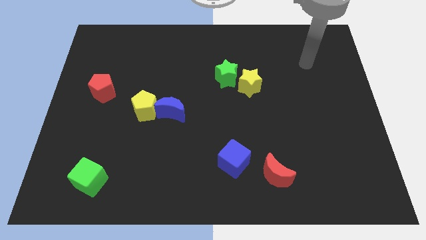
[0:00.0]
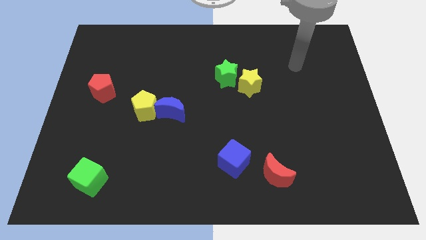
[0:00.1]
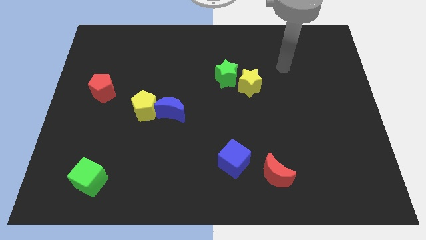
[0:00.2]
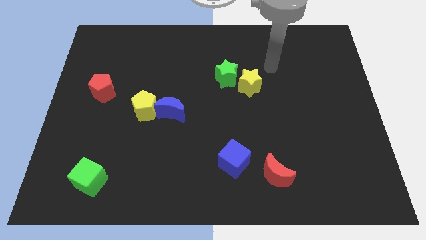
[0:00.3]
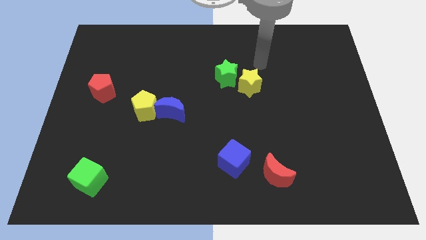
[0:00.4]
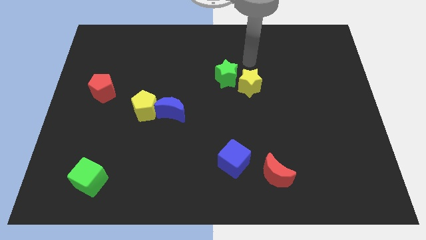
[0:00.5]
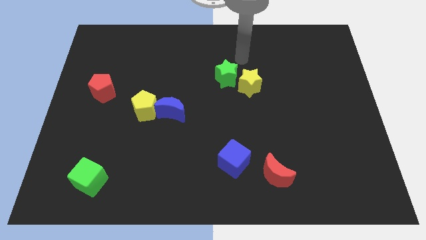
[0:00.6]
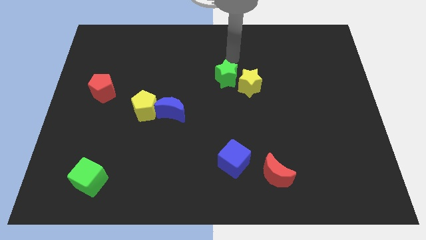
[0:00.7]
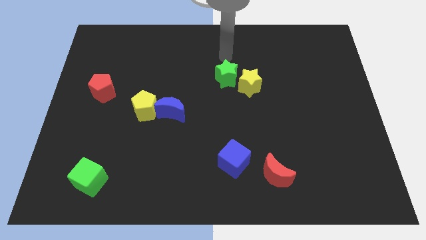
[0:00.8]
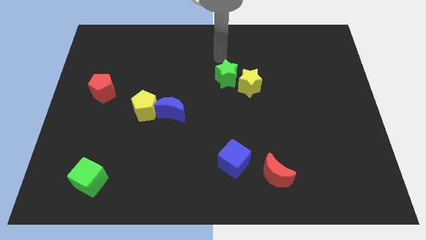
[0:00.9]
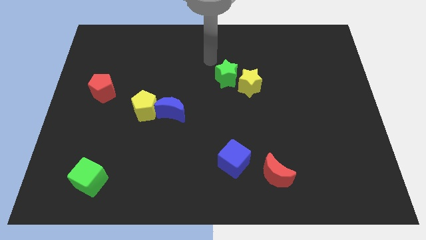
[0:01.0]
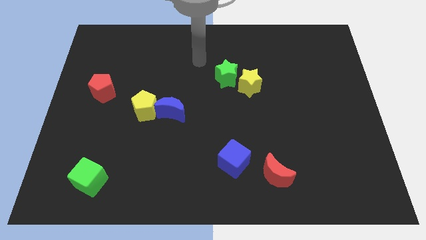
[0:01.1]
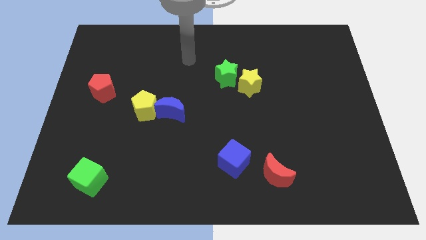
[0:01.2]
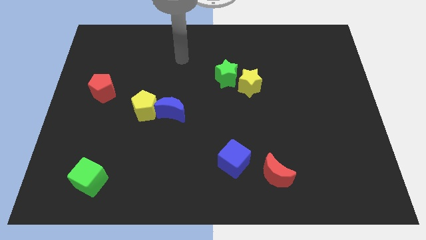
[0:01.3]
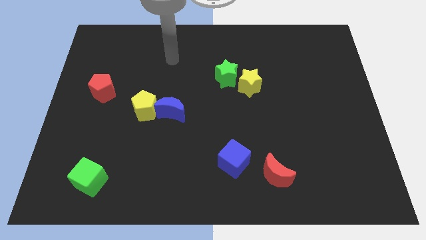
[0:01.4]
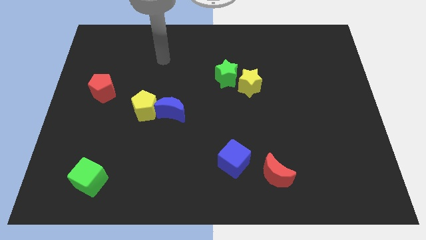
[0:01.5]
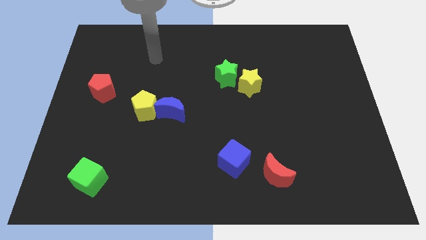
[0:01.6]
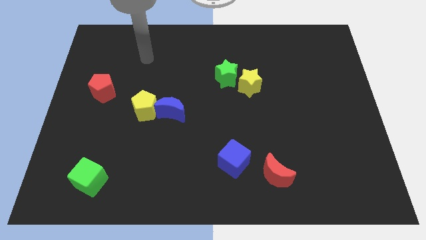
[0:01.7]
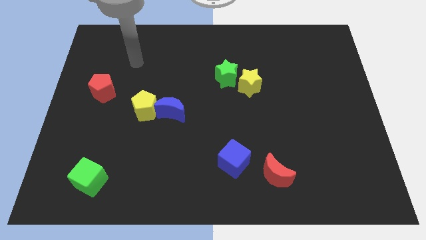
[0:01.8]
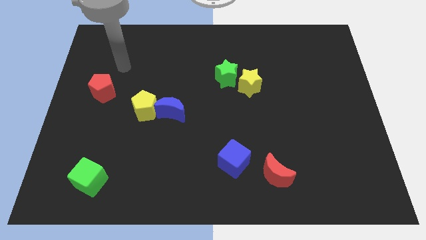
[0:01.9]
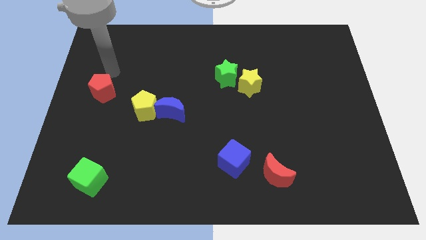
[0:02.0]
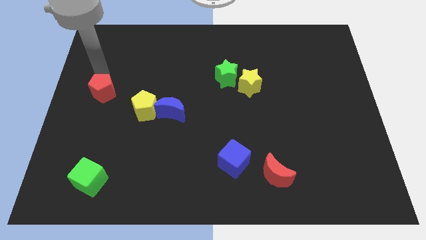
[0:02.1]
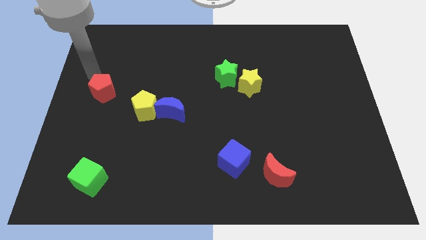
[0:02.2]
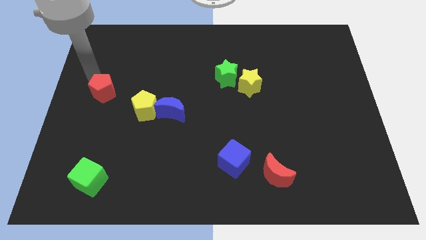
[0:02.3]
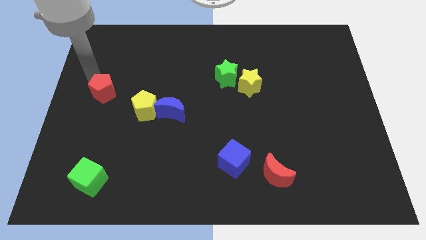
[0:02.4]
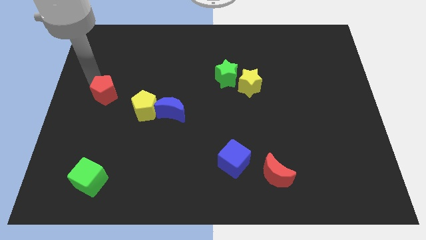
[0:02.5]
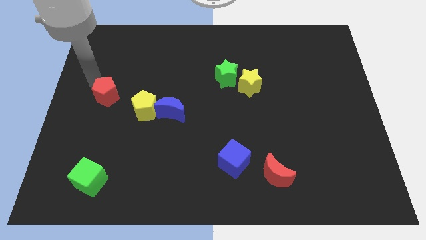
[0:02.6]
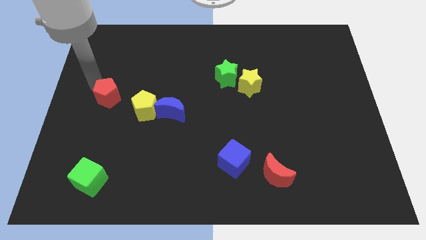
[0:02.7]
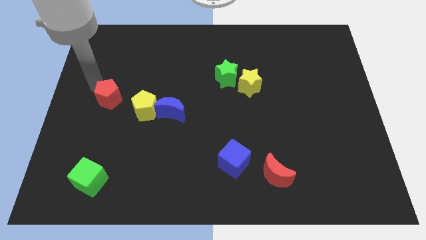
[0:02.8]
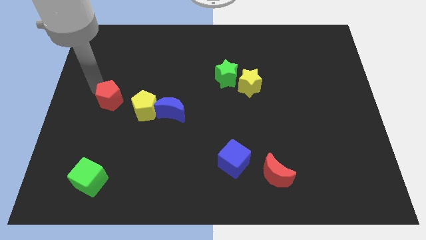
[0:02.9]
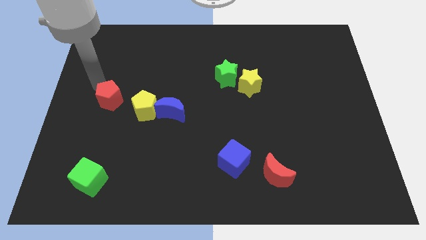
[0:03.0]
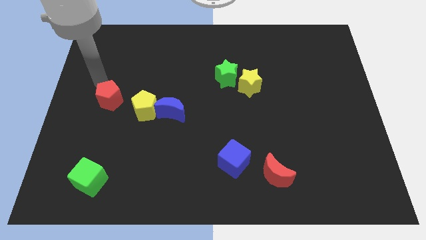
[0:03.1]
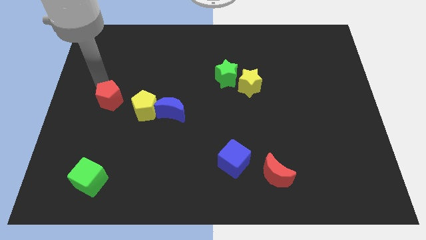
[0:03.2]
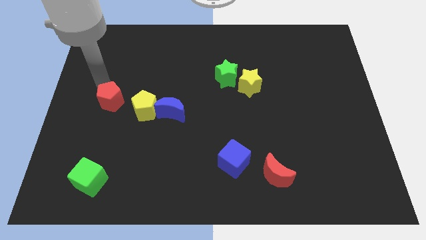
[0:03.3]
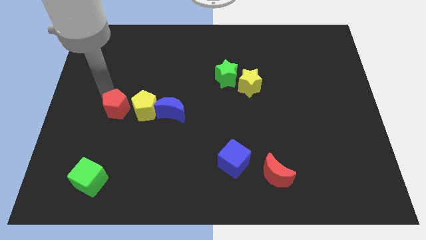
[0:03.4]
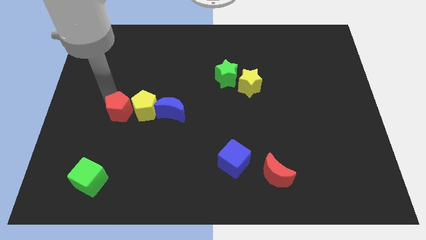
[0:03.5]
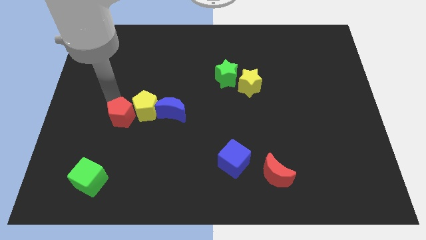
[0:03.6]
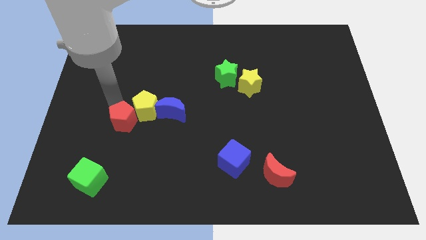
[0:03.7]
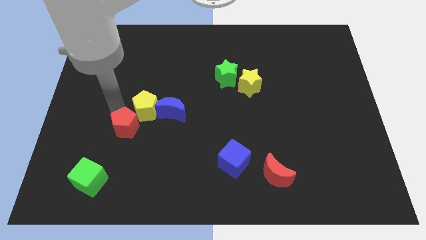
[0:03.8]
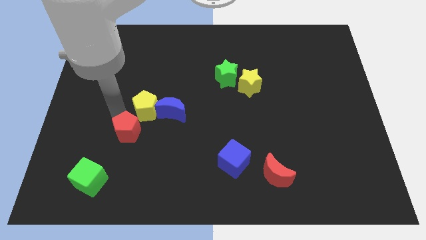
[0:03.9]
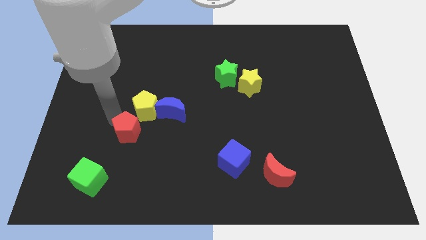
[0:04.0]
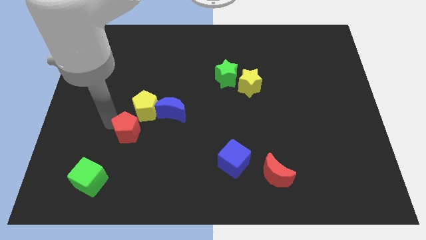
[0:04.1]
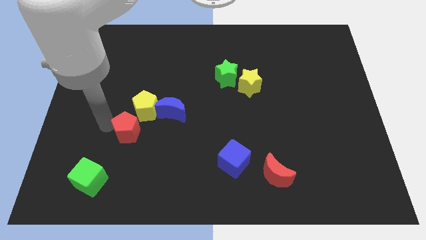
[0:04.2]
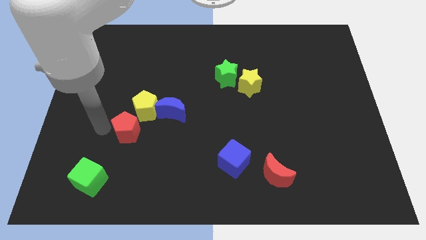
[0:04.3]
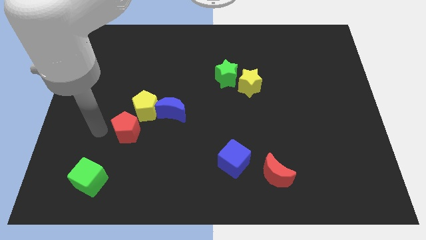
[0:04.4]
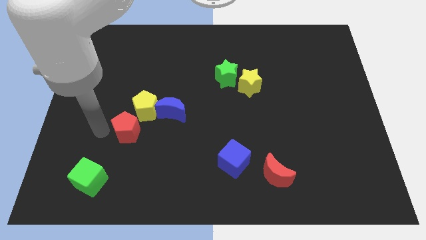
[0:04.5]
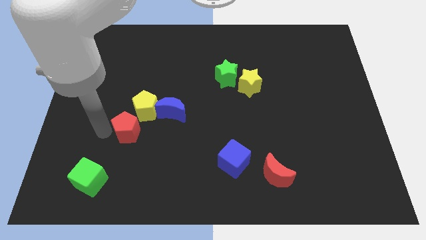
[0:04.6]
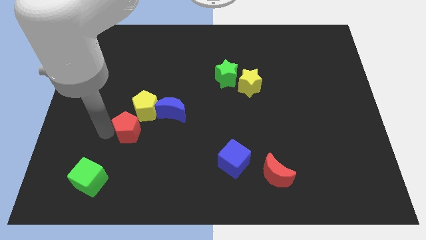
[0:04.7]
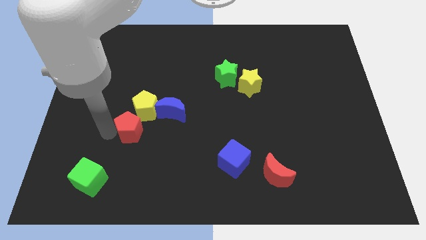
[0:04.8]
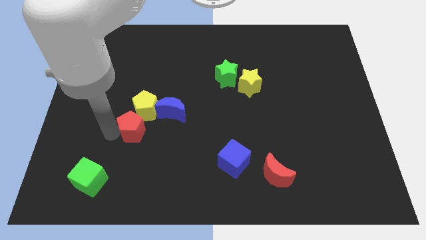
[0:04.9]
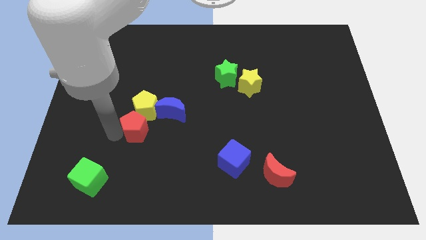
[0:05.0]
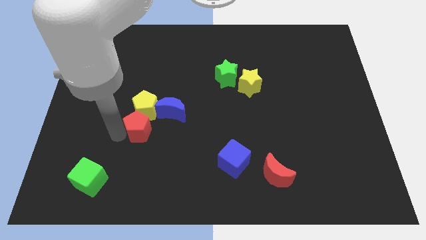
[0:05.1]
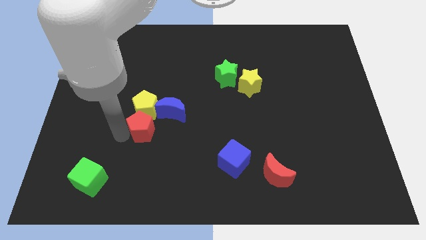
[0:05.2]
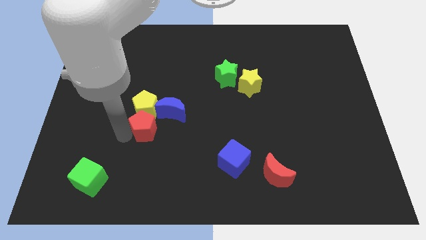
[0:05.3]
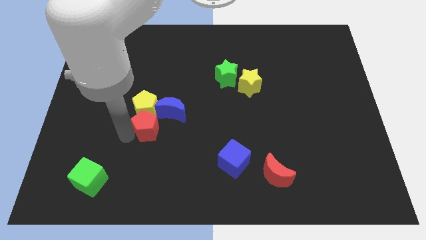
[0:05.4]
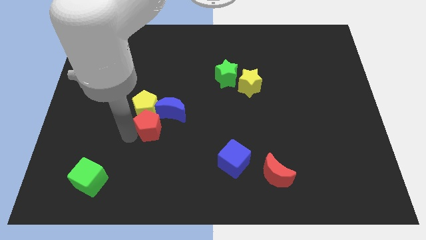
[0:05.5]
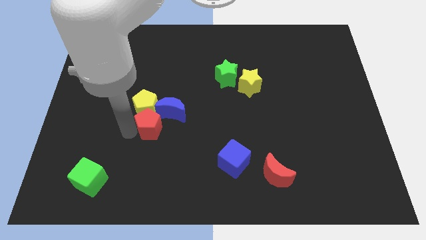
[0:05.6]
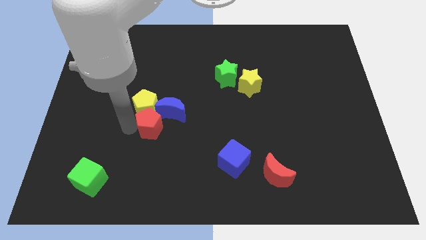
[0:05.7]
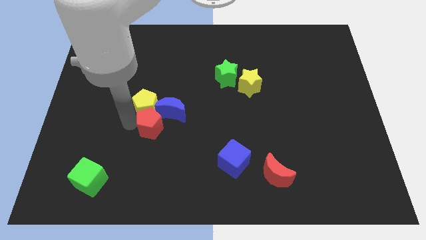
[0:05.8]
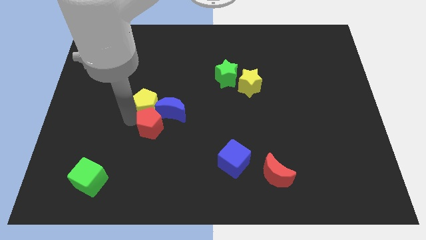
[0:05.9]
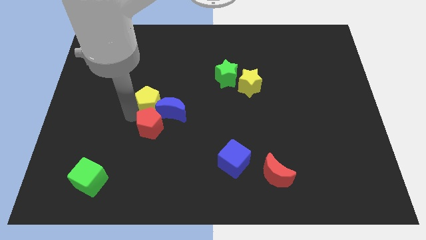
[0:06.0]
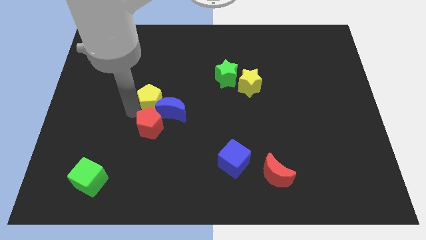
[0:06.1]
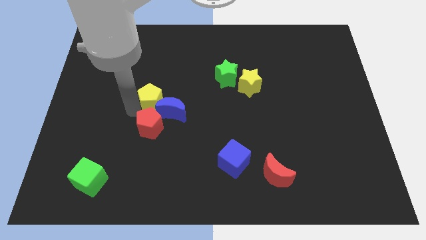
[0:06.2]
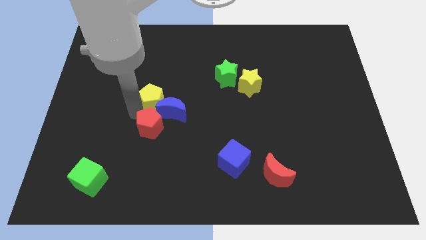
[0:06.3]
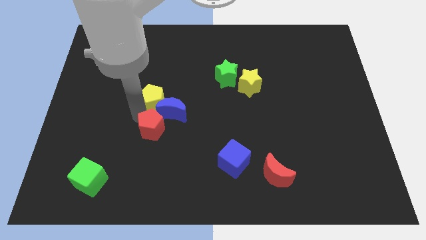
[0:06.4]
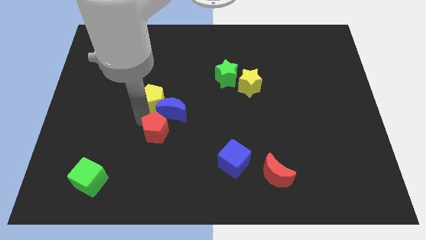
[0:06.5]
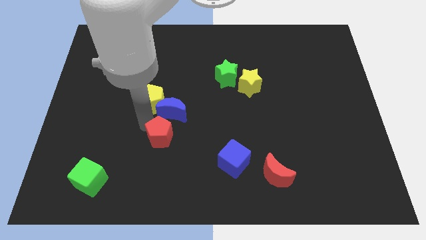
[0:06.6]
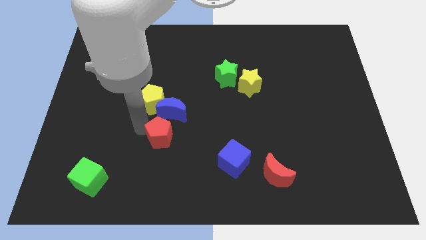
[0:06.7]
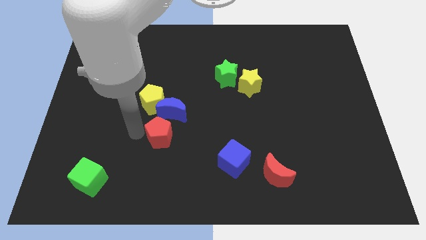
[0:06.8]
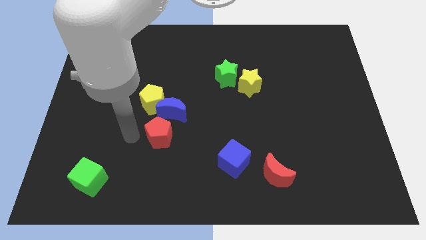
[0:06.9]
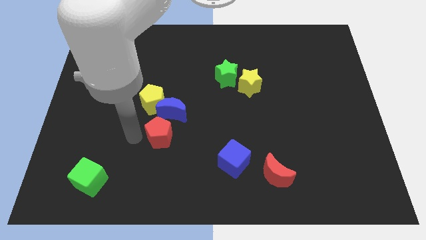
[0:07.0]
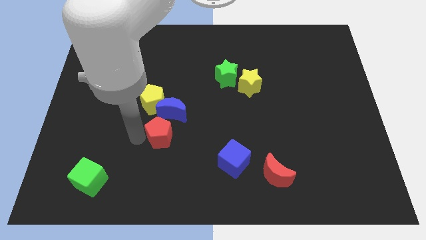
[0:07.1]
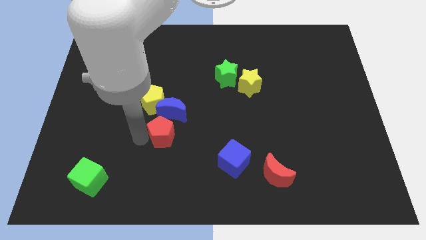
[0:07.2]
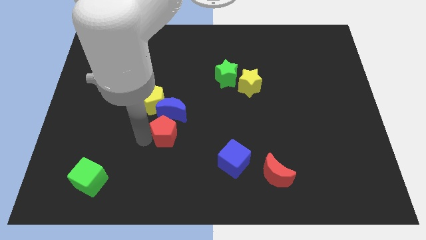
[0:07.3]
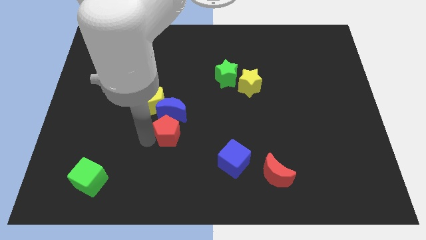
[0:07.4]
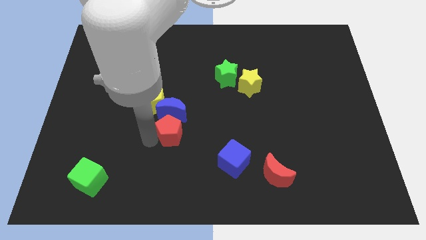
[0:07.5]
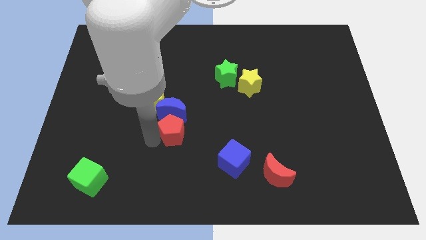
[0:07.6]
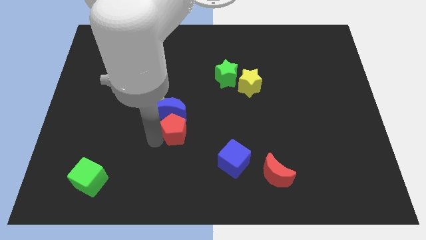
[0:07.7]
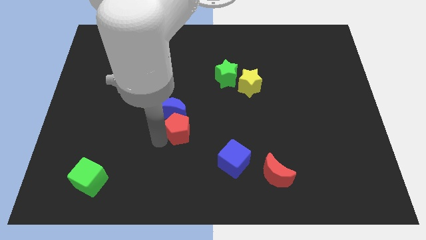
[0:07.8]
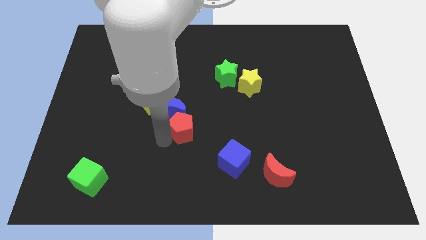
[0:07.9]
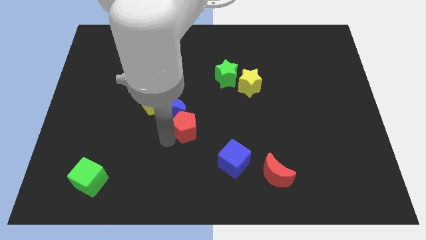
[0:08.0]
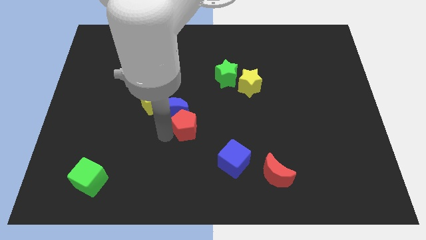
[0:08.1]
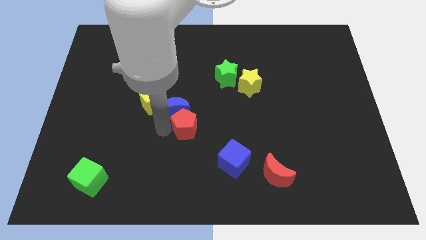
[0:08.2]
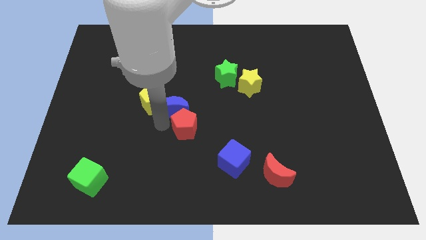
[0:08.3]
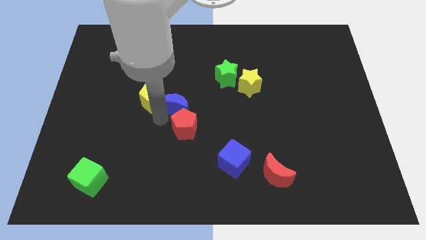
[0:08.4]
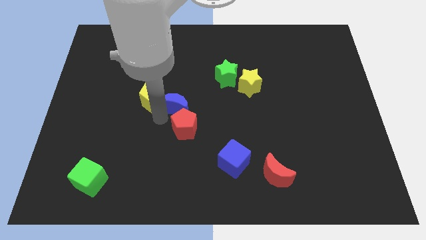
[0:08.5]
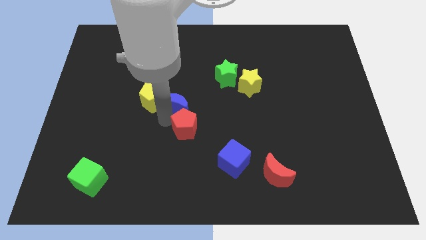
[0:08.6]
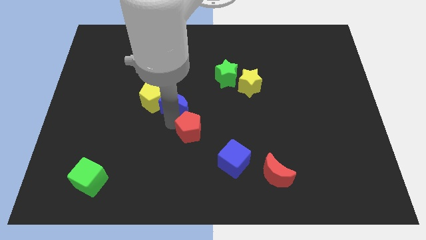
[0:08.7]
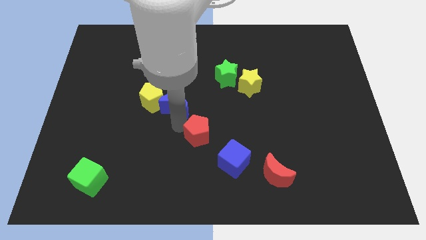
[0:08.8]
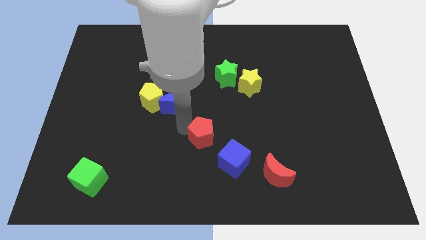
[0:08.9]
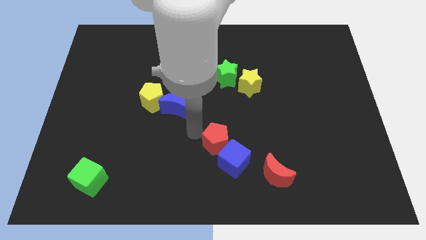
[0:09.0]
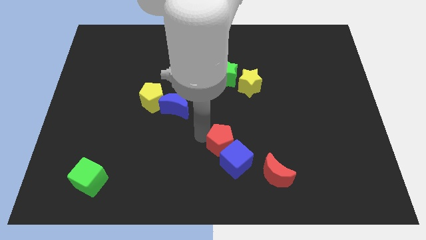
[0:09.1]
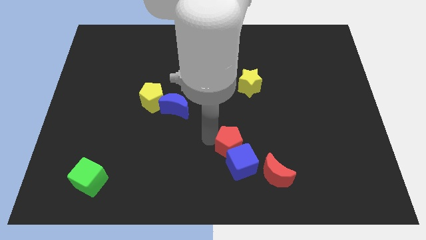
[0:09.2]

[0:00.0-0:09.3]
move the red pentagon diagonally up and to the left of the red moon
